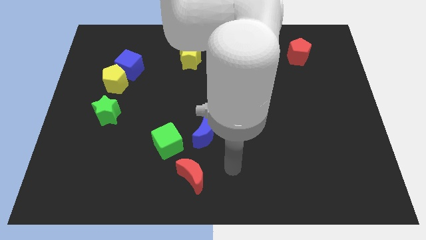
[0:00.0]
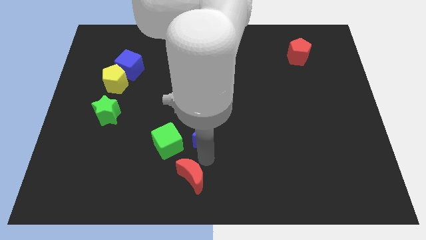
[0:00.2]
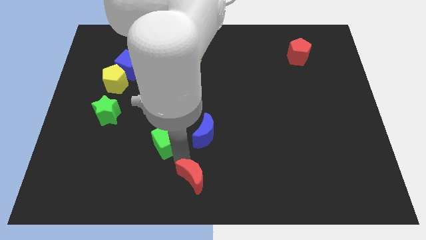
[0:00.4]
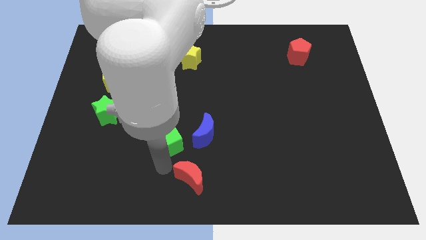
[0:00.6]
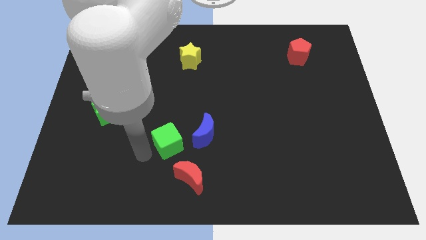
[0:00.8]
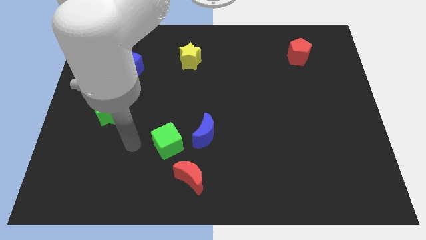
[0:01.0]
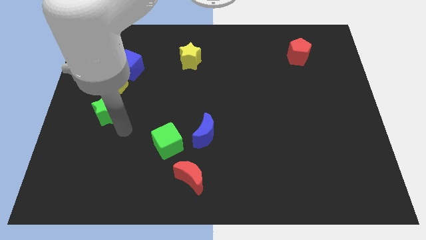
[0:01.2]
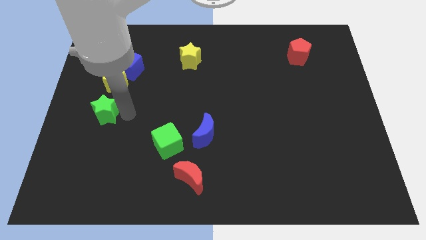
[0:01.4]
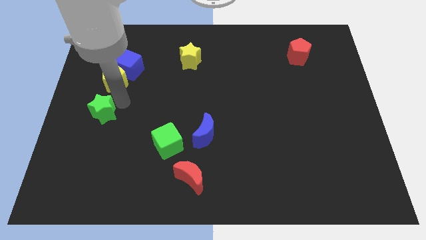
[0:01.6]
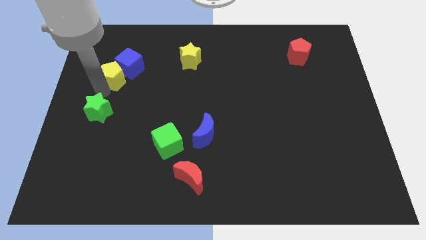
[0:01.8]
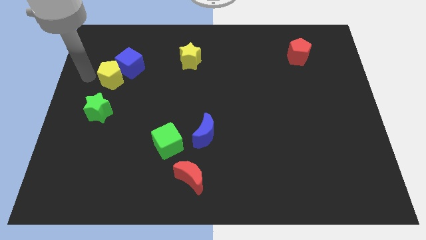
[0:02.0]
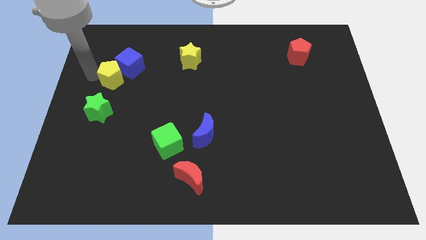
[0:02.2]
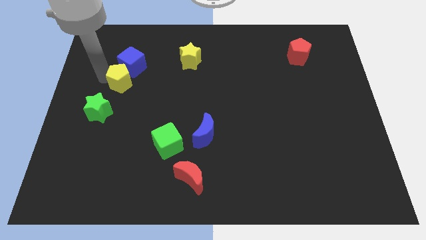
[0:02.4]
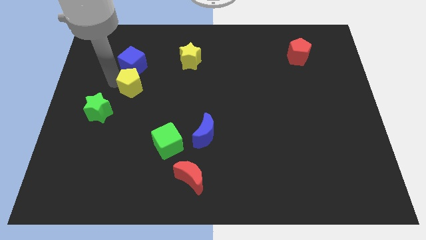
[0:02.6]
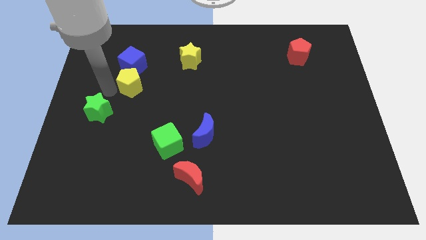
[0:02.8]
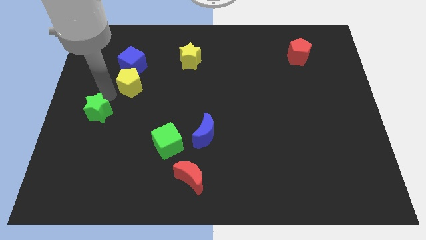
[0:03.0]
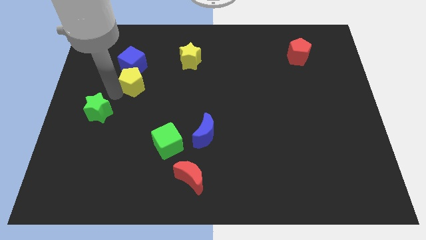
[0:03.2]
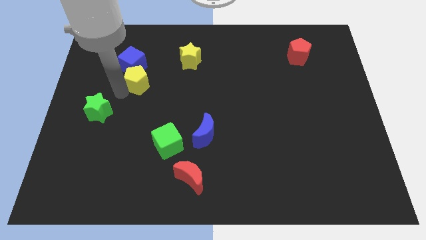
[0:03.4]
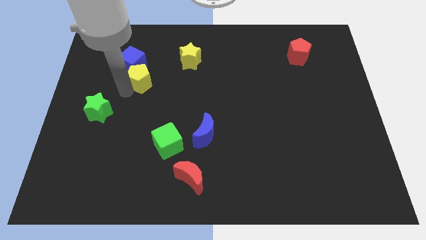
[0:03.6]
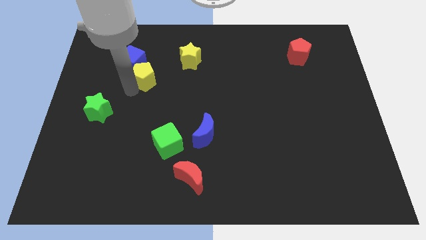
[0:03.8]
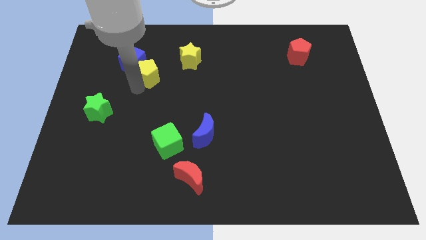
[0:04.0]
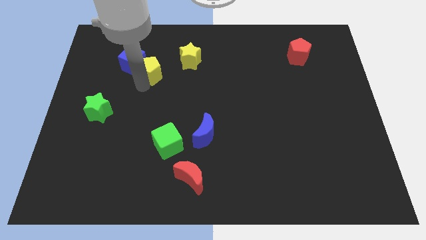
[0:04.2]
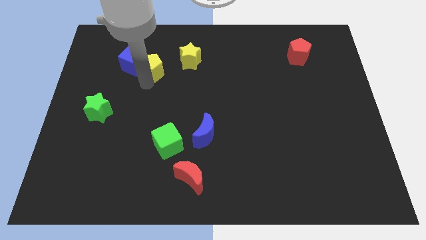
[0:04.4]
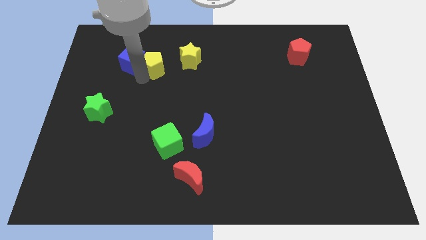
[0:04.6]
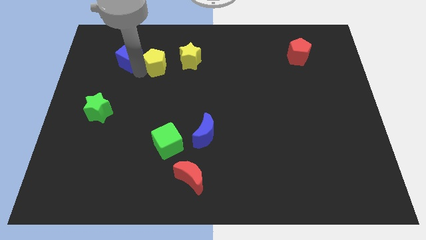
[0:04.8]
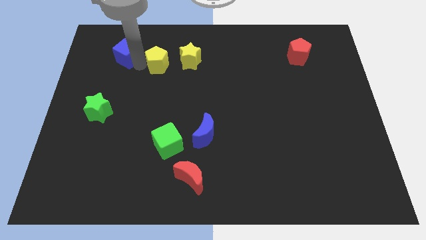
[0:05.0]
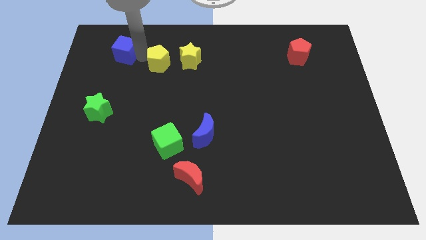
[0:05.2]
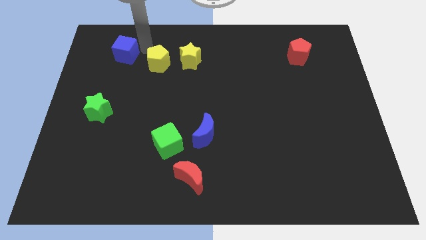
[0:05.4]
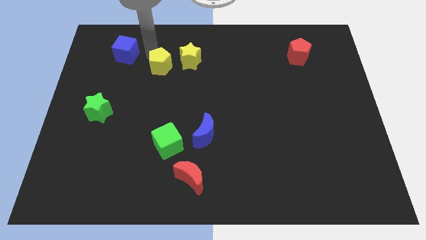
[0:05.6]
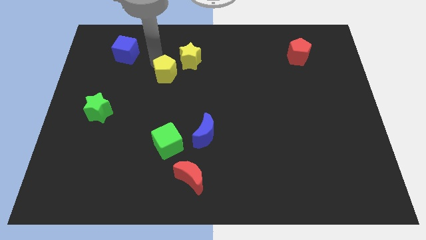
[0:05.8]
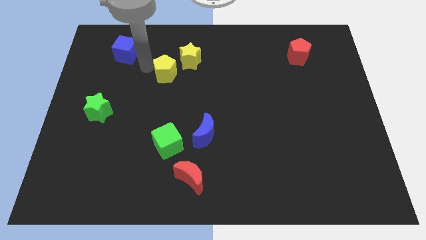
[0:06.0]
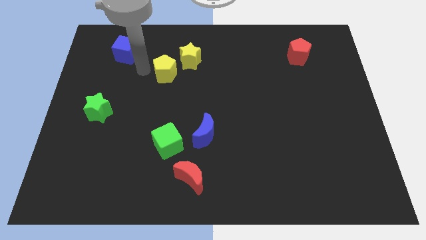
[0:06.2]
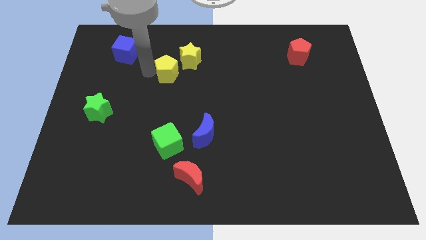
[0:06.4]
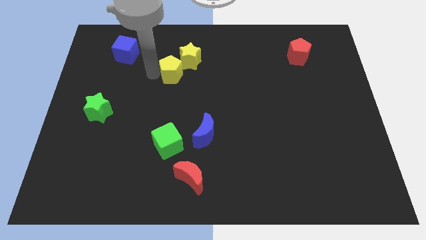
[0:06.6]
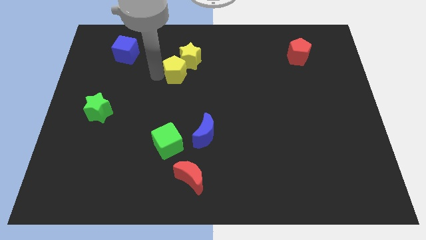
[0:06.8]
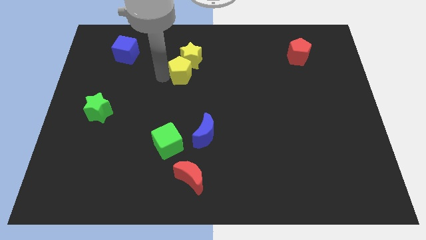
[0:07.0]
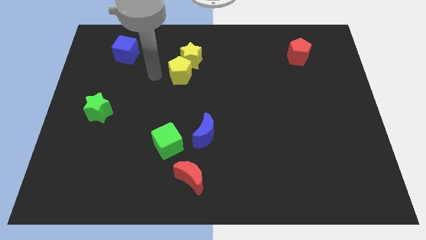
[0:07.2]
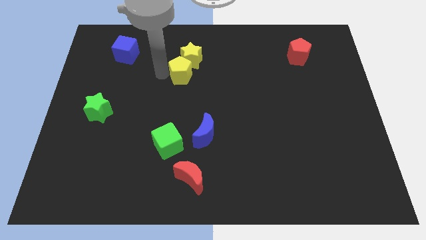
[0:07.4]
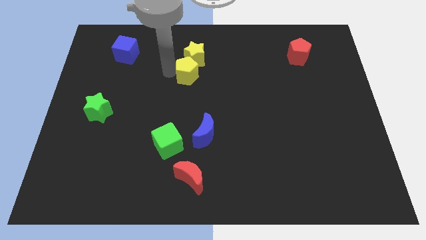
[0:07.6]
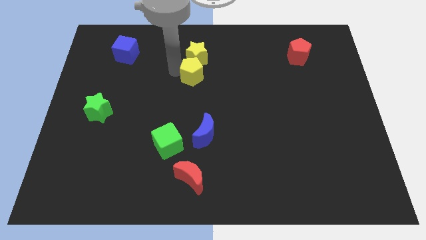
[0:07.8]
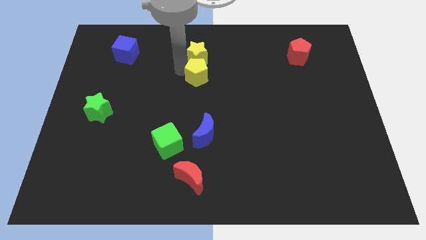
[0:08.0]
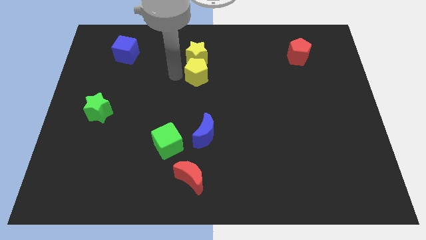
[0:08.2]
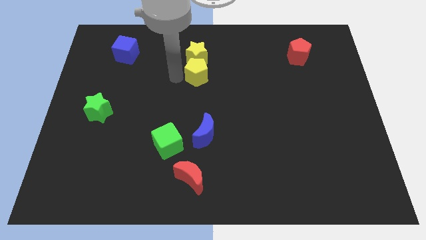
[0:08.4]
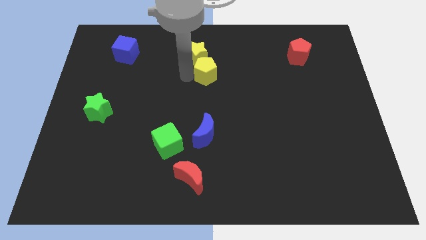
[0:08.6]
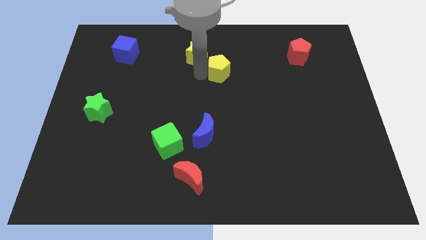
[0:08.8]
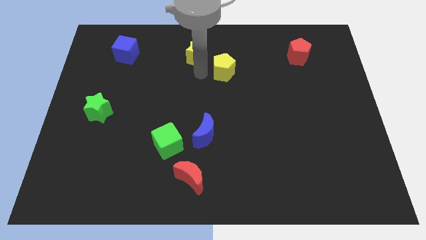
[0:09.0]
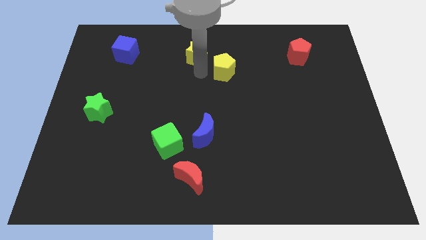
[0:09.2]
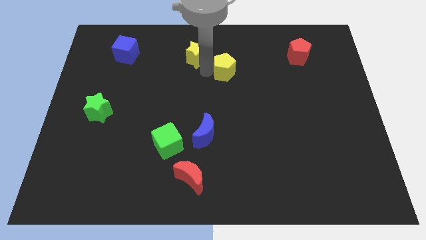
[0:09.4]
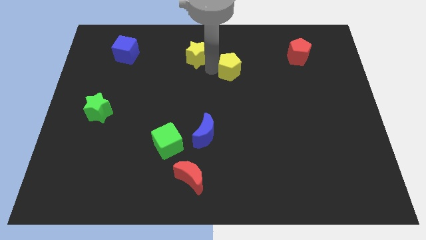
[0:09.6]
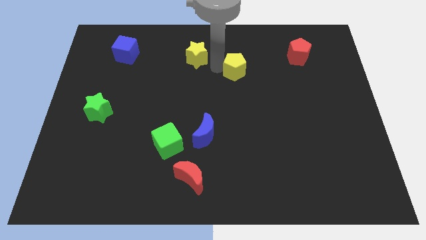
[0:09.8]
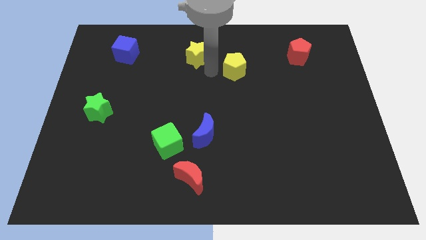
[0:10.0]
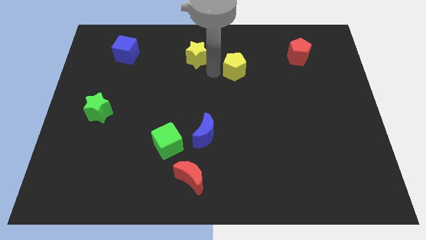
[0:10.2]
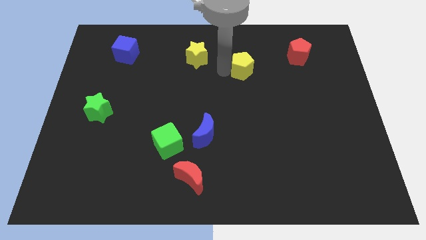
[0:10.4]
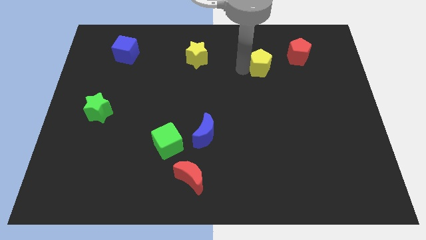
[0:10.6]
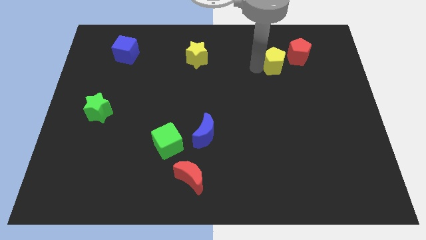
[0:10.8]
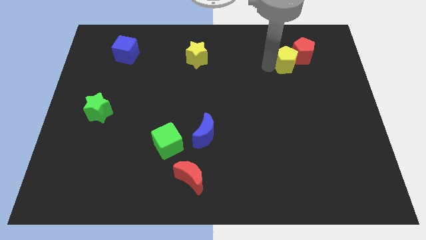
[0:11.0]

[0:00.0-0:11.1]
slide the yellow pentagon next to the red pentagon

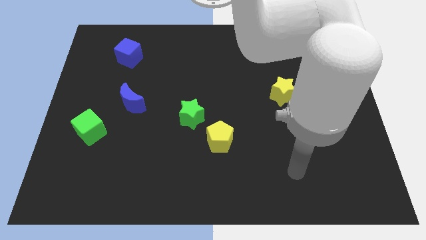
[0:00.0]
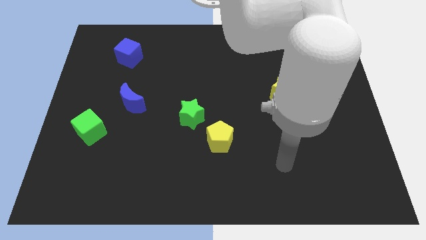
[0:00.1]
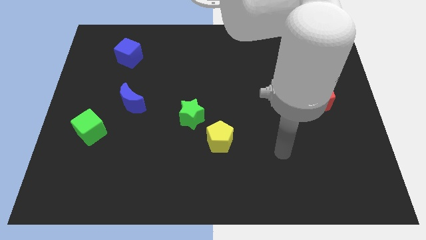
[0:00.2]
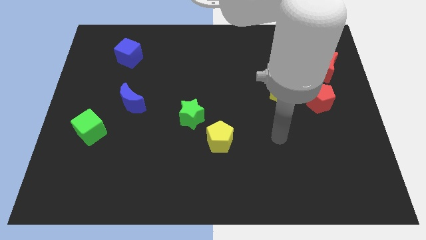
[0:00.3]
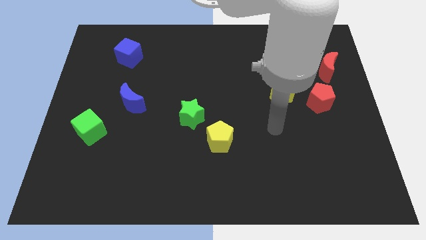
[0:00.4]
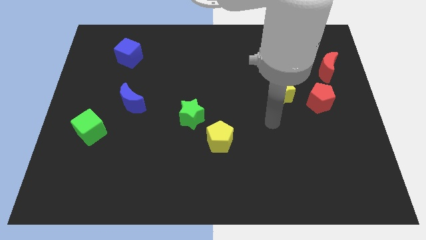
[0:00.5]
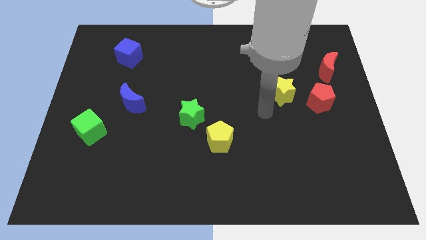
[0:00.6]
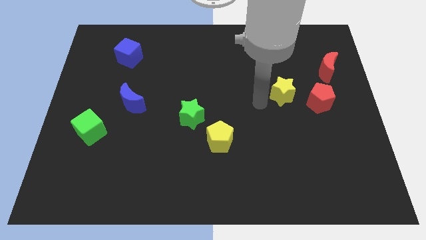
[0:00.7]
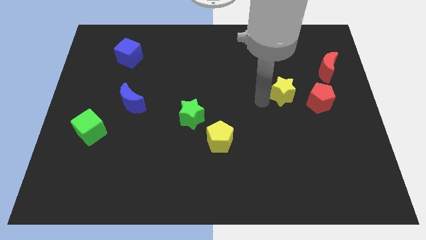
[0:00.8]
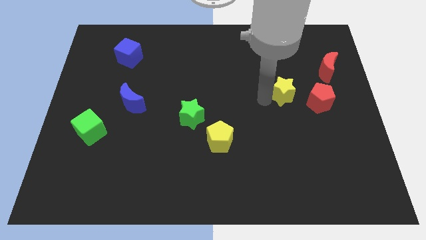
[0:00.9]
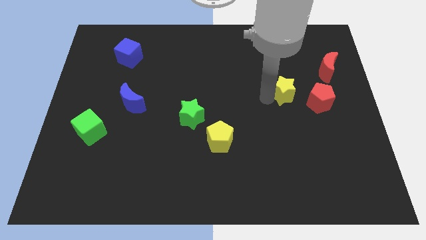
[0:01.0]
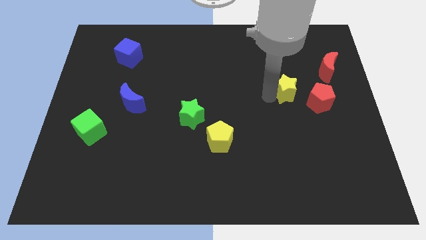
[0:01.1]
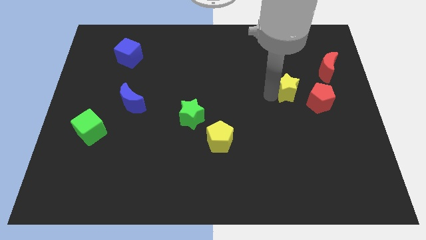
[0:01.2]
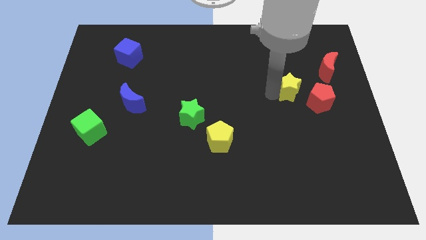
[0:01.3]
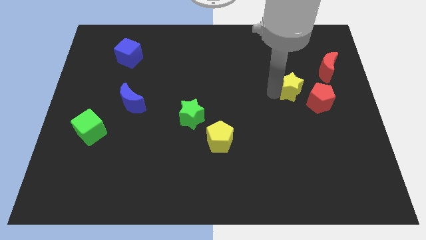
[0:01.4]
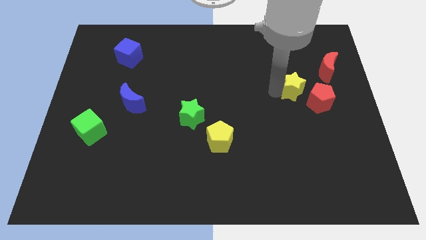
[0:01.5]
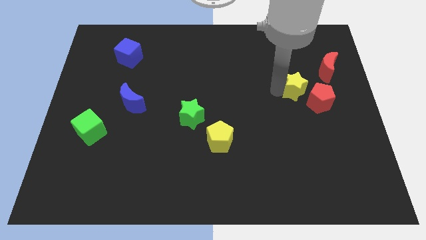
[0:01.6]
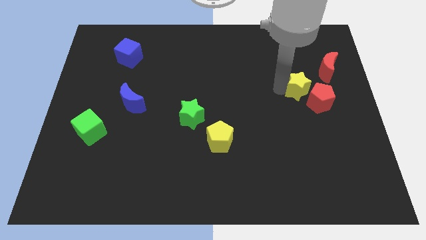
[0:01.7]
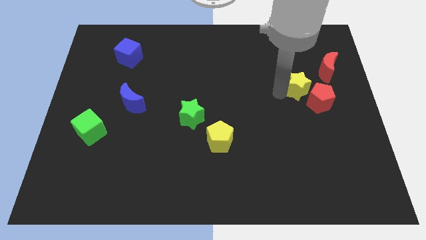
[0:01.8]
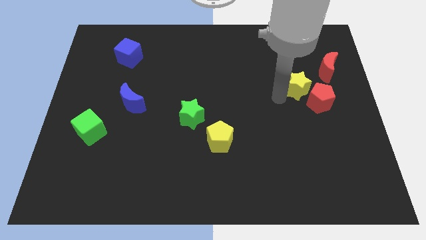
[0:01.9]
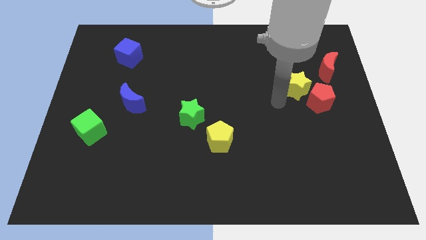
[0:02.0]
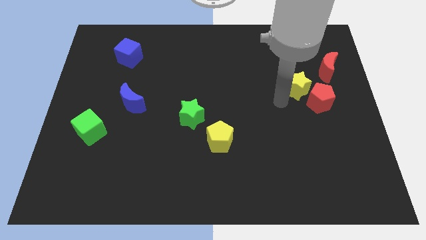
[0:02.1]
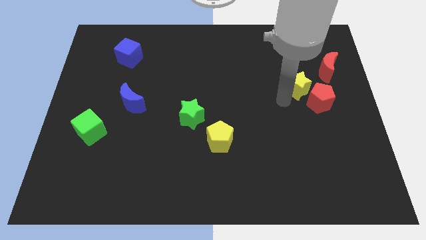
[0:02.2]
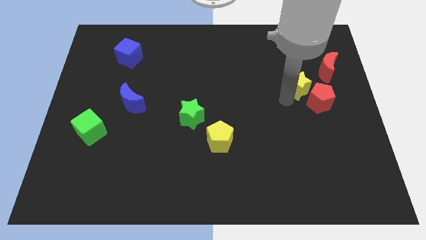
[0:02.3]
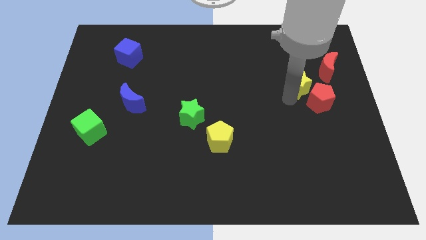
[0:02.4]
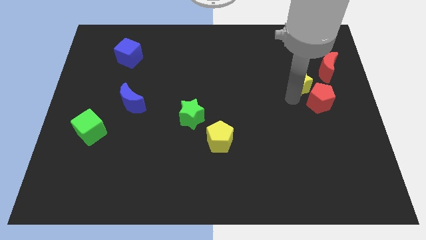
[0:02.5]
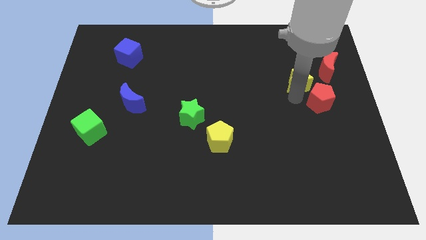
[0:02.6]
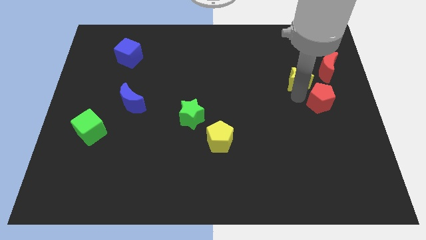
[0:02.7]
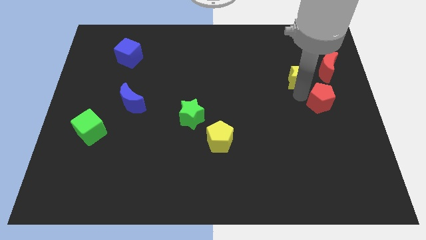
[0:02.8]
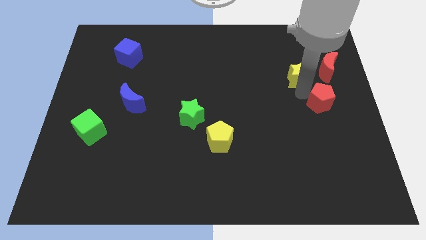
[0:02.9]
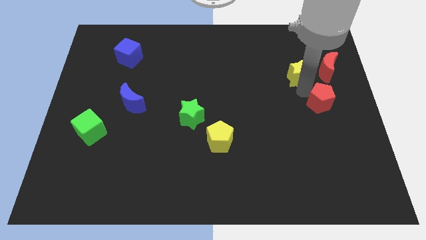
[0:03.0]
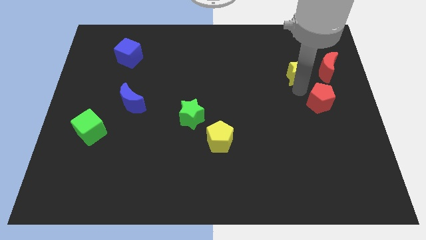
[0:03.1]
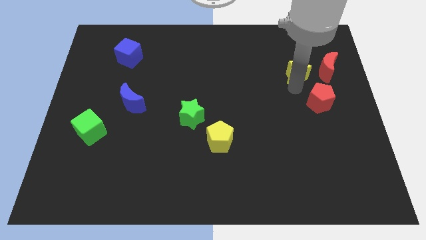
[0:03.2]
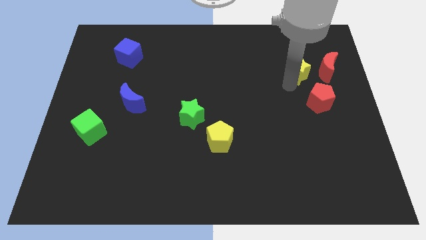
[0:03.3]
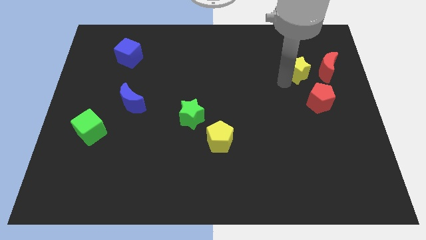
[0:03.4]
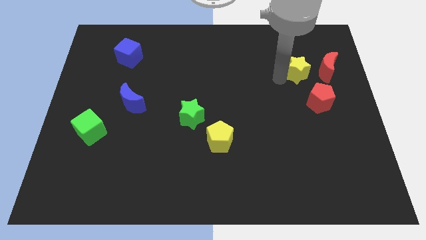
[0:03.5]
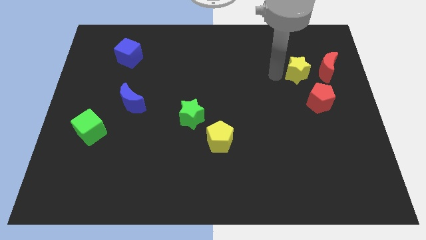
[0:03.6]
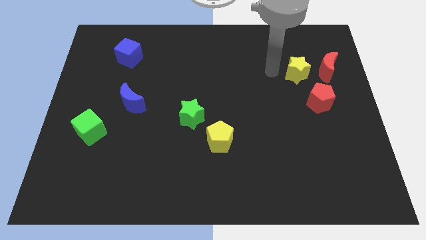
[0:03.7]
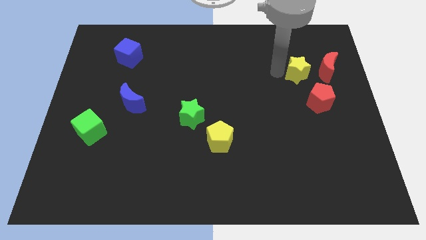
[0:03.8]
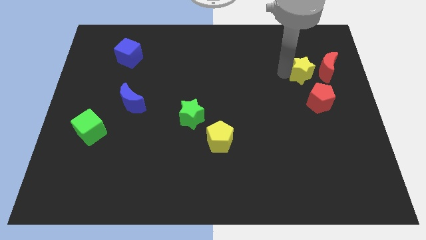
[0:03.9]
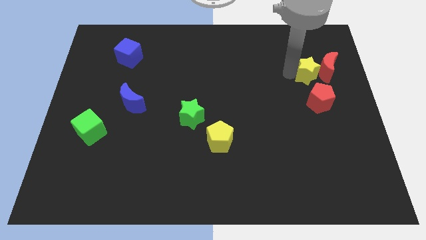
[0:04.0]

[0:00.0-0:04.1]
push the yellow star close to the red moon
